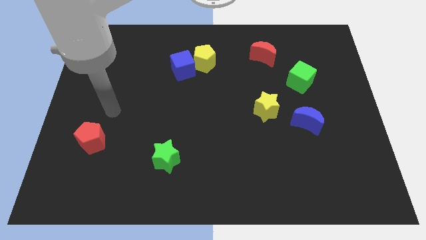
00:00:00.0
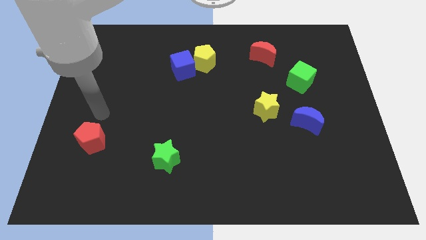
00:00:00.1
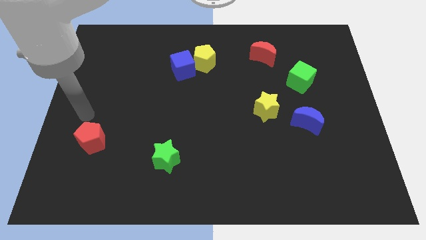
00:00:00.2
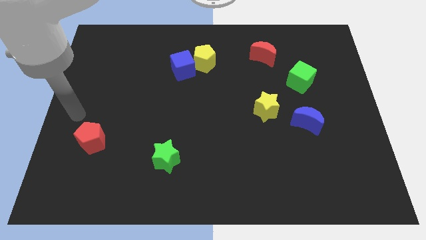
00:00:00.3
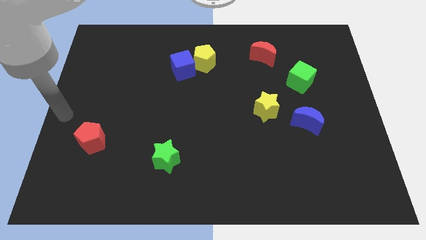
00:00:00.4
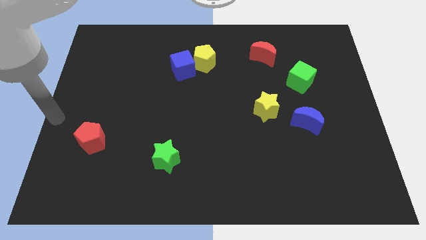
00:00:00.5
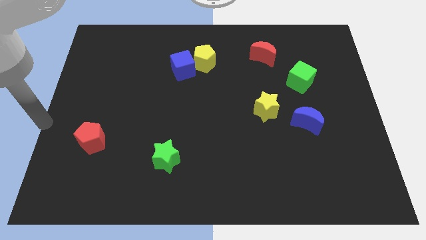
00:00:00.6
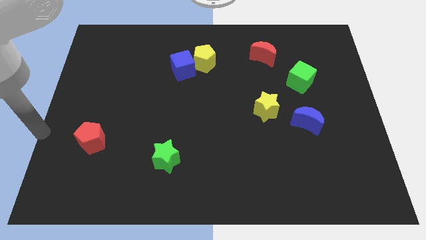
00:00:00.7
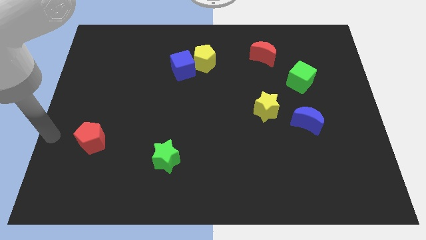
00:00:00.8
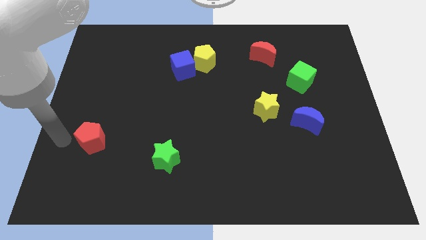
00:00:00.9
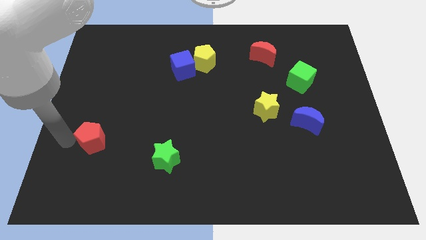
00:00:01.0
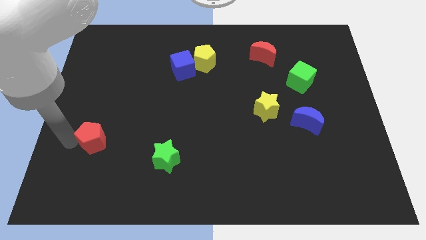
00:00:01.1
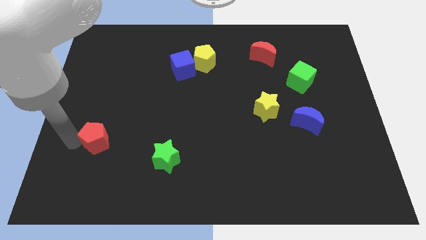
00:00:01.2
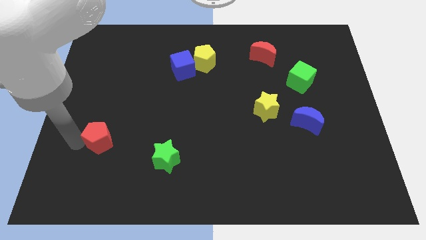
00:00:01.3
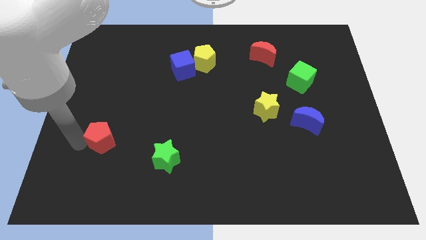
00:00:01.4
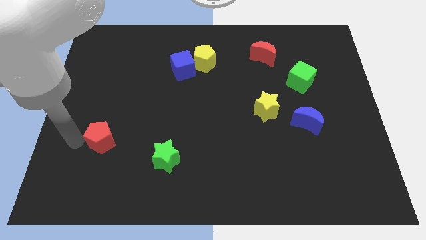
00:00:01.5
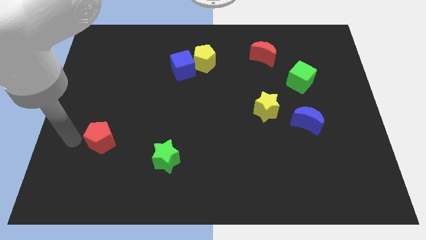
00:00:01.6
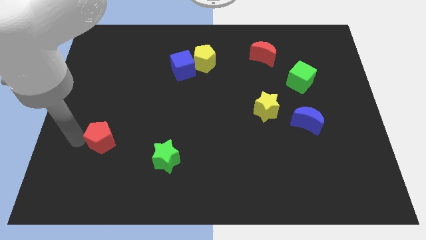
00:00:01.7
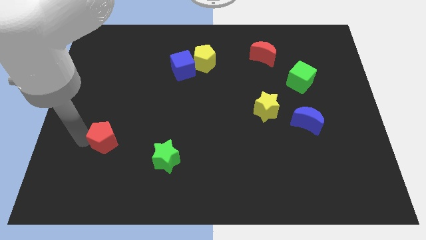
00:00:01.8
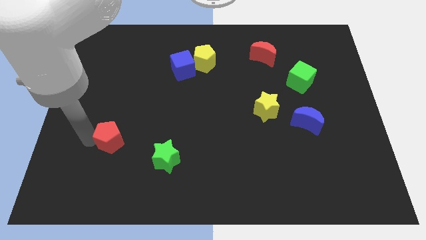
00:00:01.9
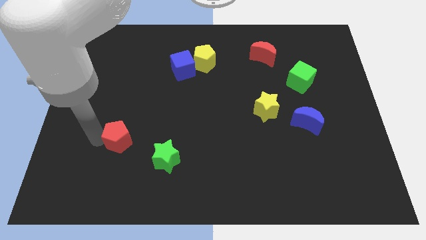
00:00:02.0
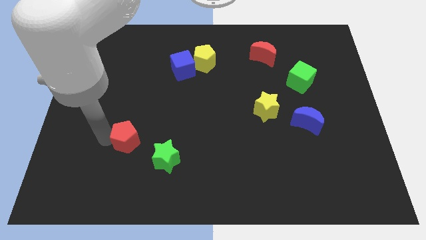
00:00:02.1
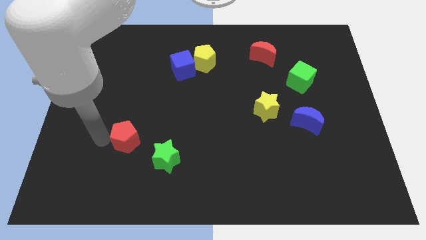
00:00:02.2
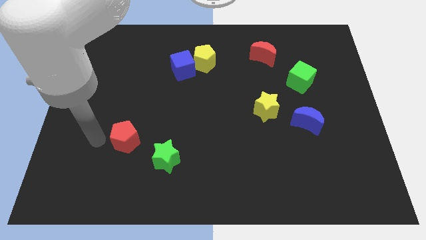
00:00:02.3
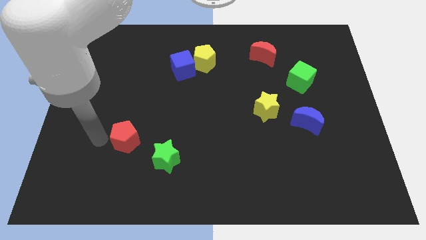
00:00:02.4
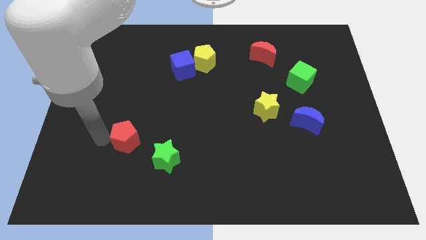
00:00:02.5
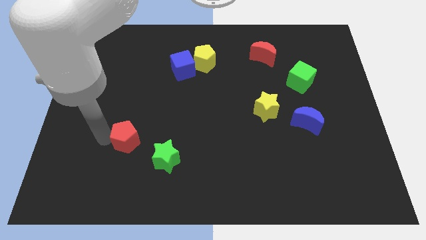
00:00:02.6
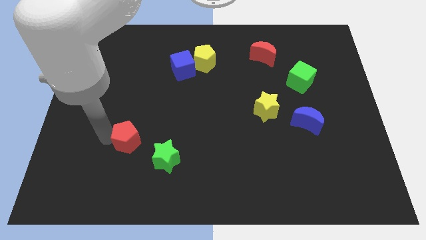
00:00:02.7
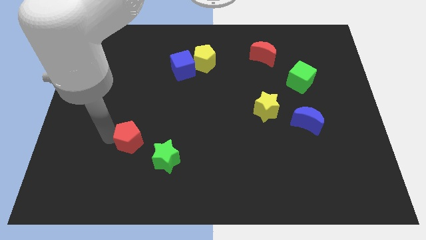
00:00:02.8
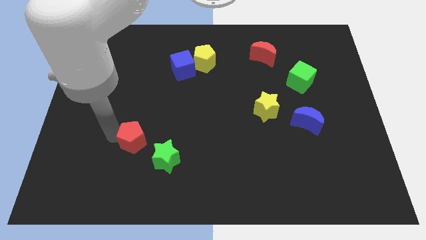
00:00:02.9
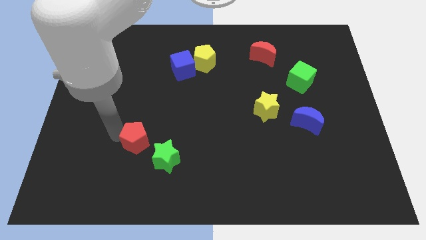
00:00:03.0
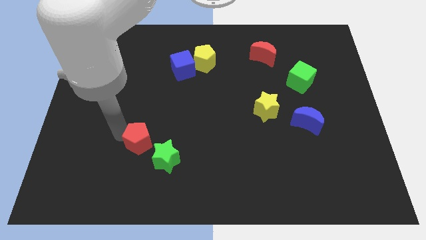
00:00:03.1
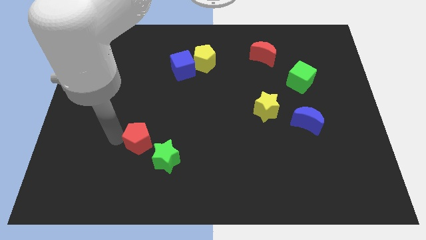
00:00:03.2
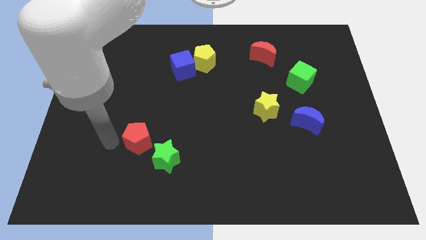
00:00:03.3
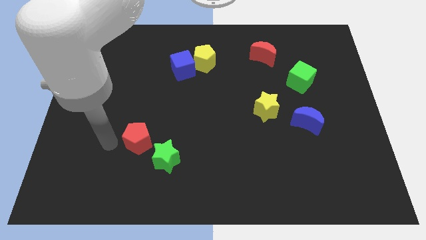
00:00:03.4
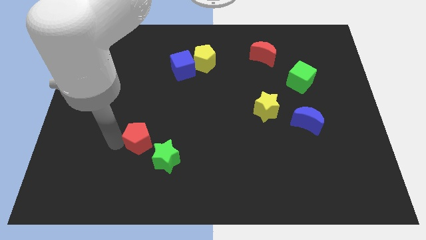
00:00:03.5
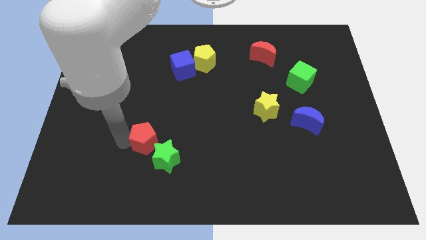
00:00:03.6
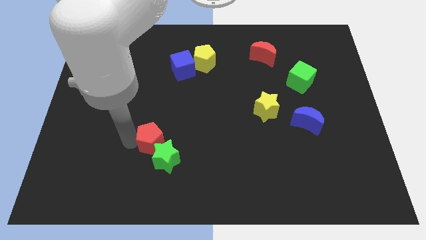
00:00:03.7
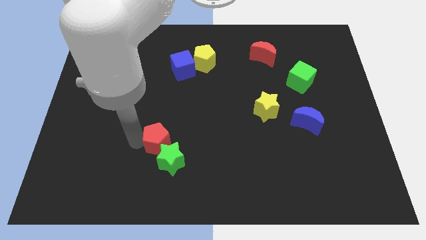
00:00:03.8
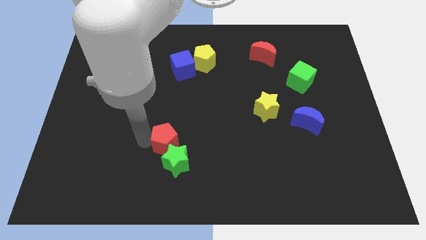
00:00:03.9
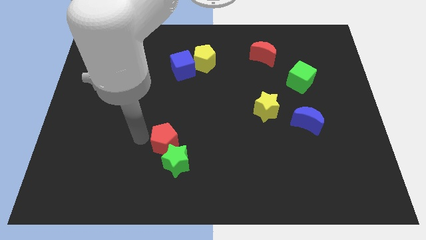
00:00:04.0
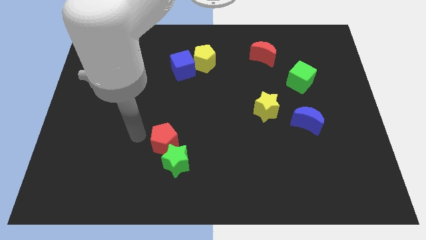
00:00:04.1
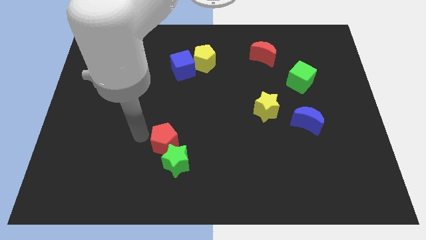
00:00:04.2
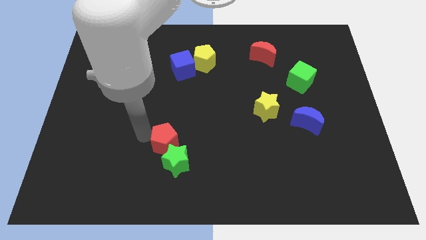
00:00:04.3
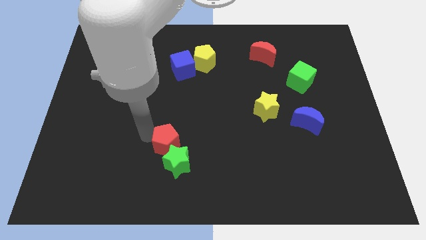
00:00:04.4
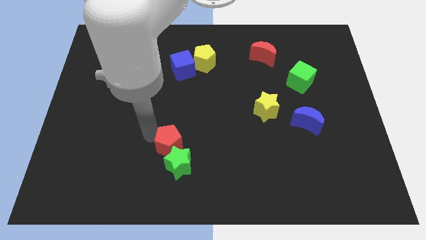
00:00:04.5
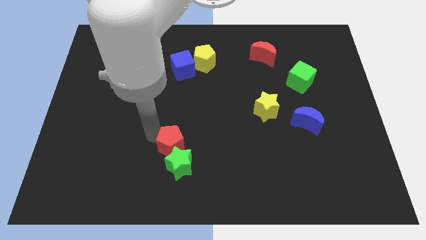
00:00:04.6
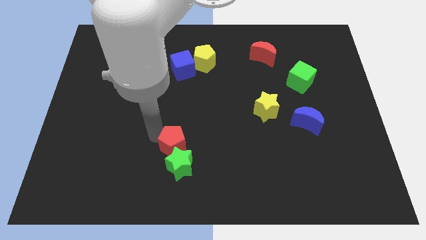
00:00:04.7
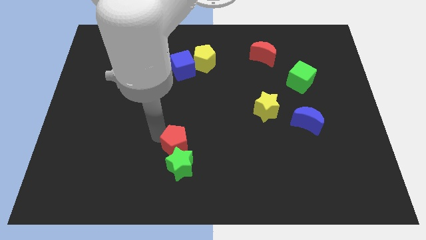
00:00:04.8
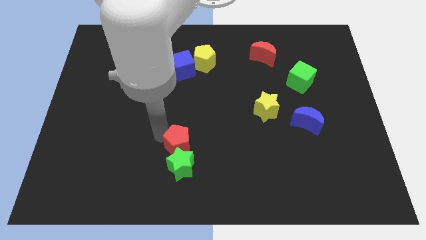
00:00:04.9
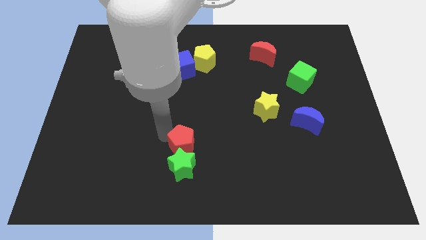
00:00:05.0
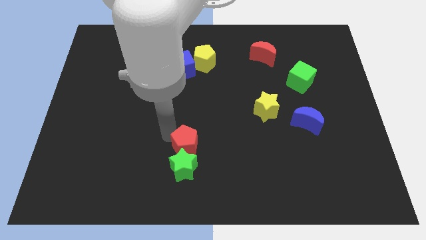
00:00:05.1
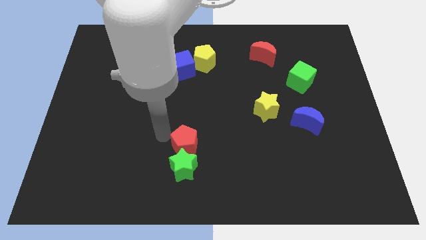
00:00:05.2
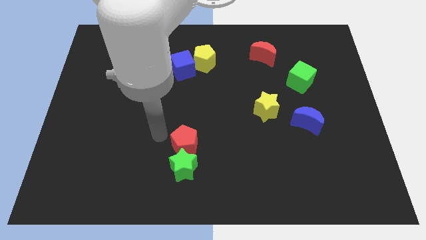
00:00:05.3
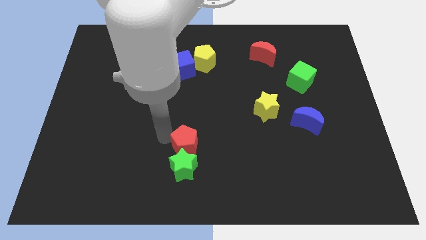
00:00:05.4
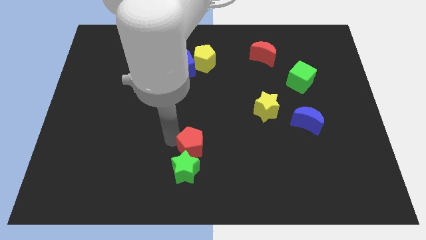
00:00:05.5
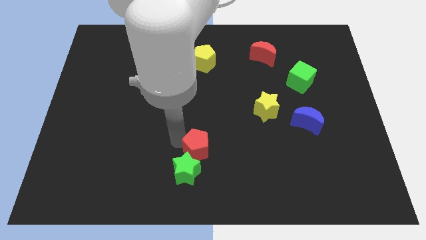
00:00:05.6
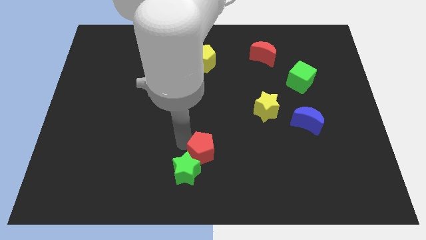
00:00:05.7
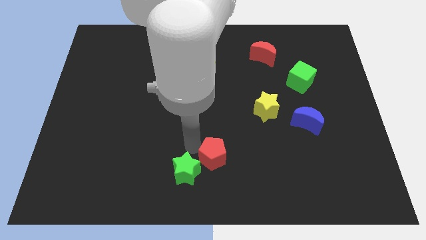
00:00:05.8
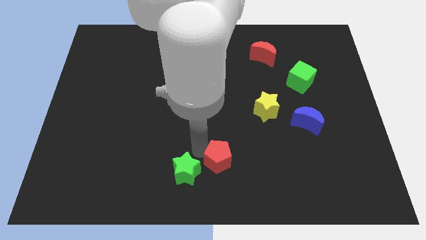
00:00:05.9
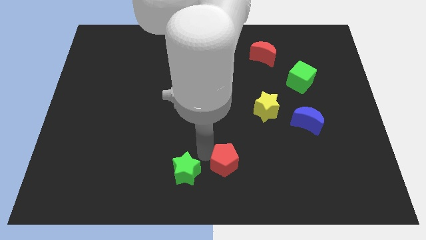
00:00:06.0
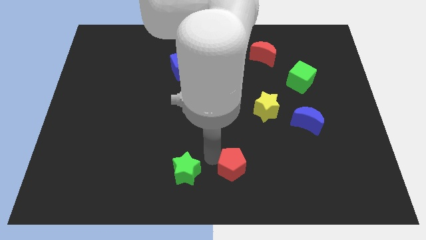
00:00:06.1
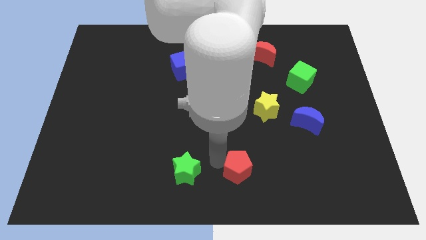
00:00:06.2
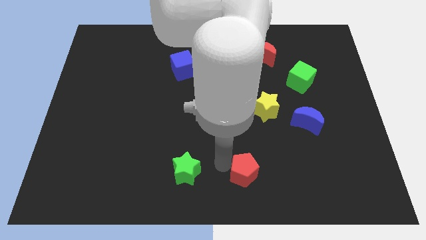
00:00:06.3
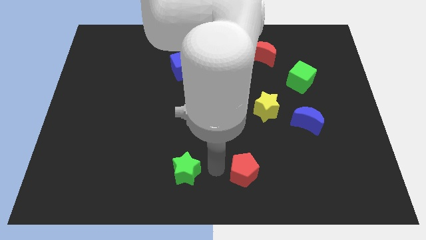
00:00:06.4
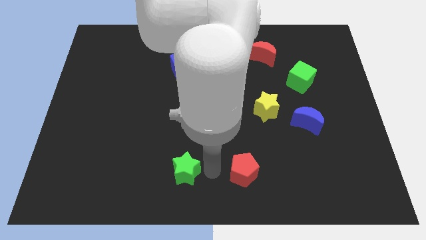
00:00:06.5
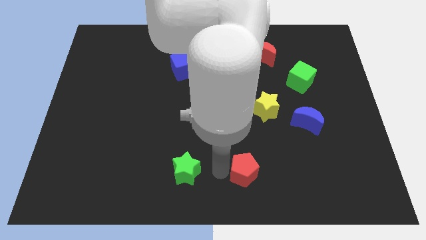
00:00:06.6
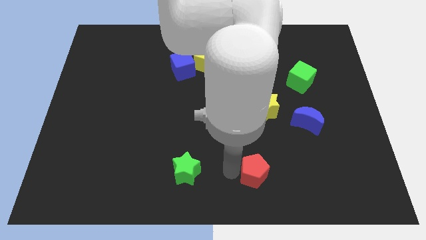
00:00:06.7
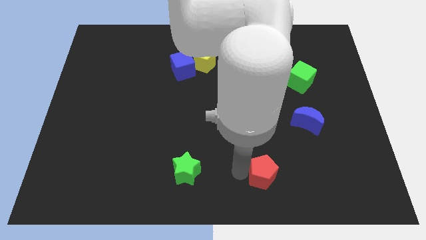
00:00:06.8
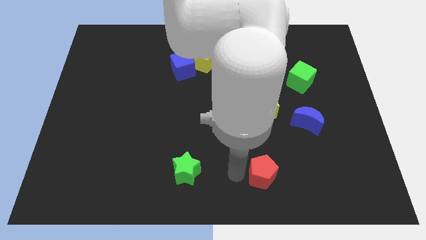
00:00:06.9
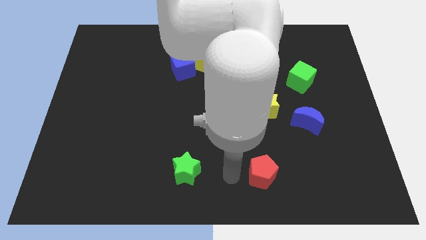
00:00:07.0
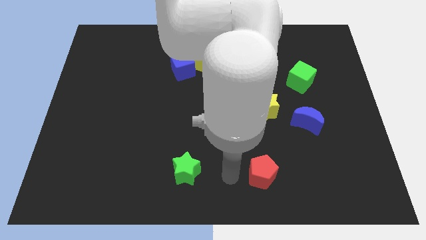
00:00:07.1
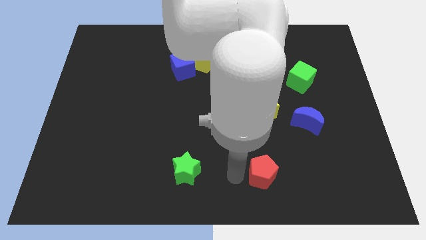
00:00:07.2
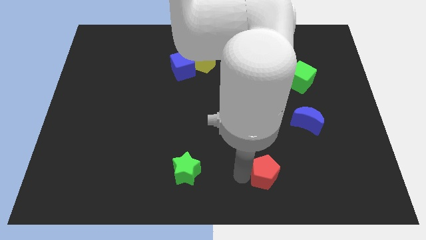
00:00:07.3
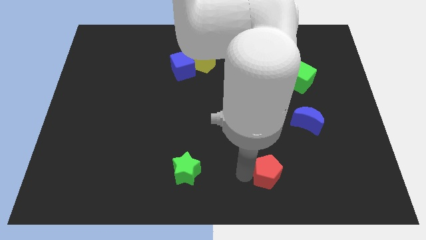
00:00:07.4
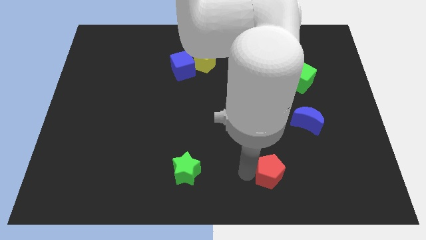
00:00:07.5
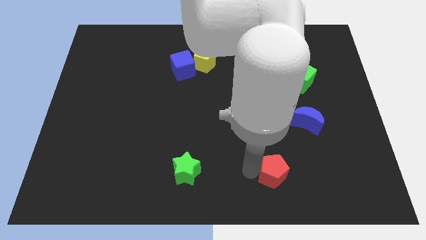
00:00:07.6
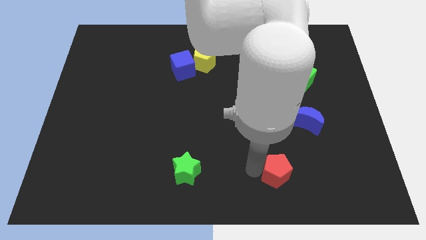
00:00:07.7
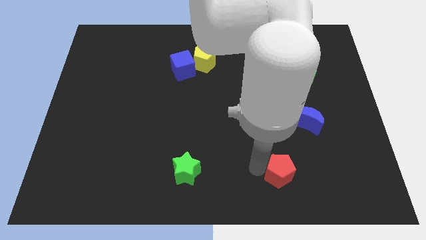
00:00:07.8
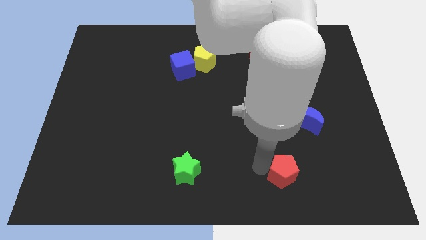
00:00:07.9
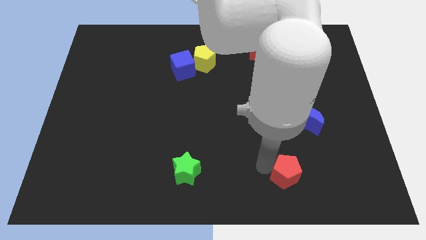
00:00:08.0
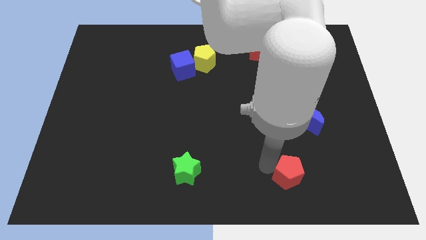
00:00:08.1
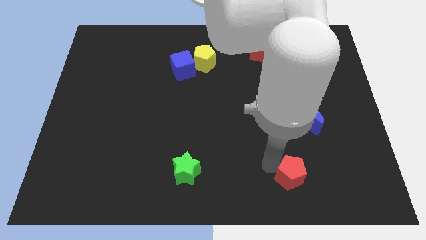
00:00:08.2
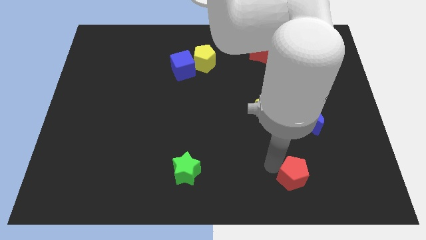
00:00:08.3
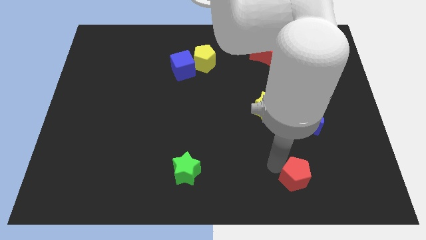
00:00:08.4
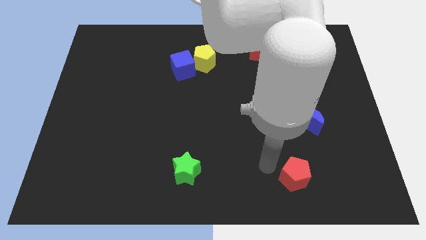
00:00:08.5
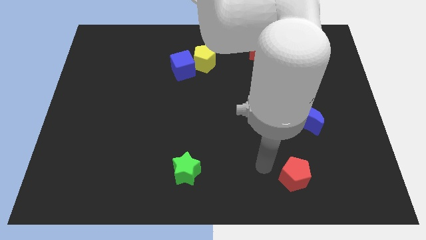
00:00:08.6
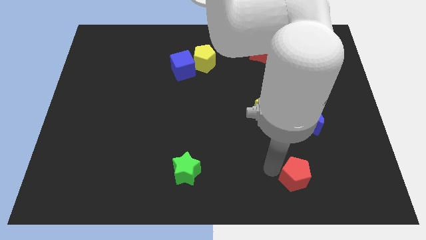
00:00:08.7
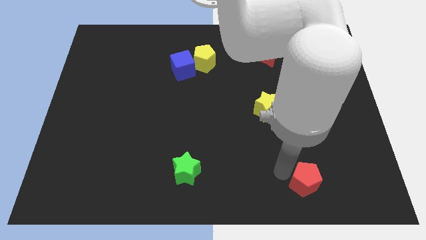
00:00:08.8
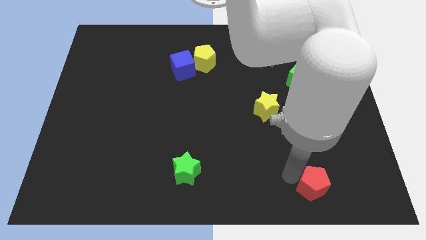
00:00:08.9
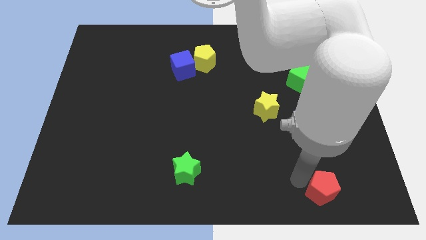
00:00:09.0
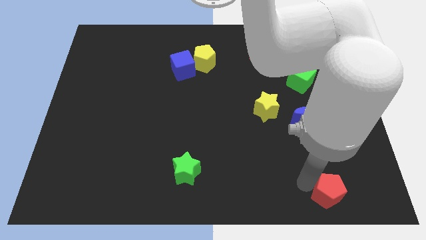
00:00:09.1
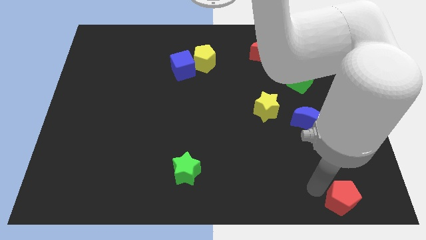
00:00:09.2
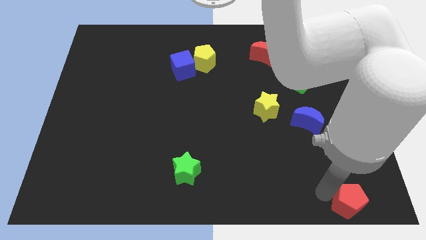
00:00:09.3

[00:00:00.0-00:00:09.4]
slide the red pentagon to the bottom right corner
